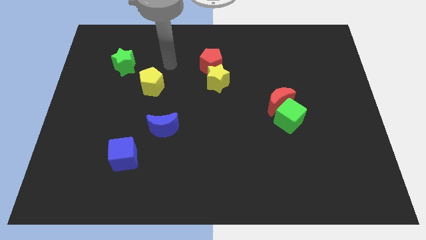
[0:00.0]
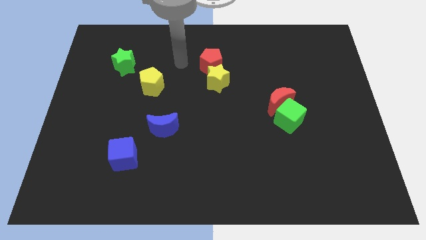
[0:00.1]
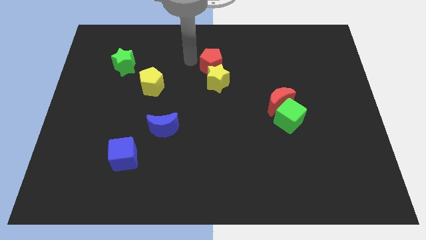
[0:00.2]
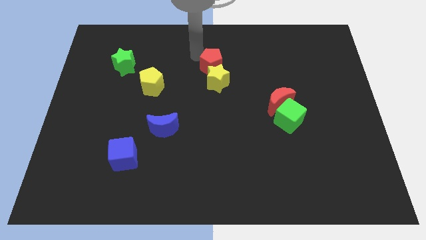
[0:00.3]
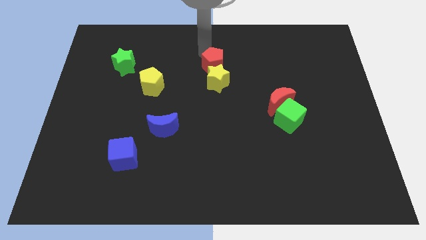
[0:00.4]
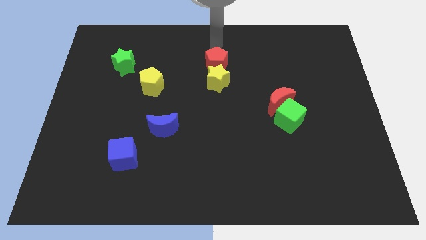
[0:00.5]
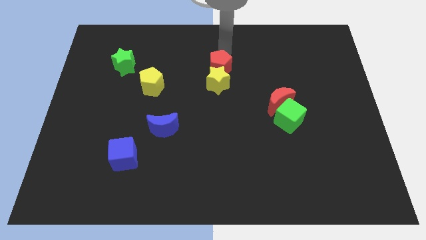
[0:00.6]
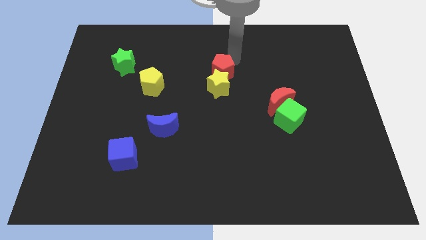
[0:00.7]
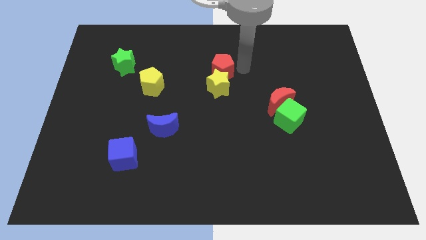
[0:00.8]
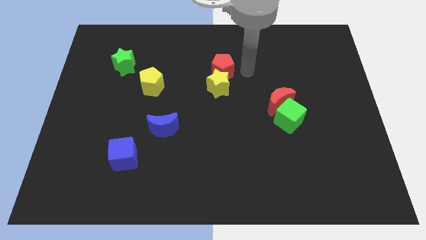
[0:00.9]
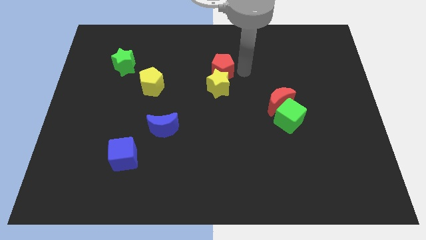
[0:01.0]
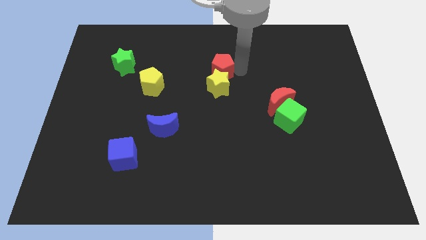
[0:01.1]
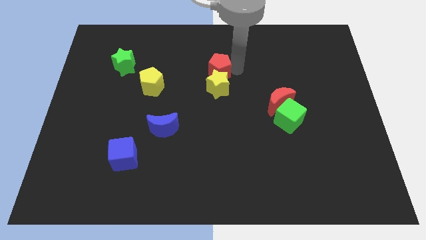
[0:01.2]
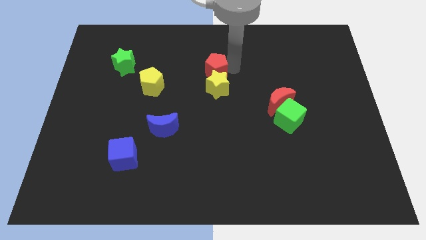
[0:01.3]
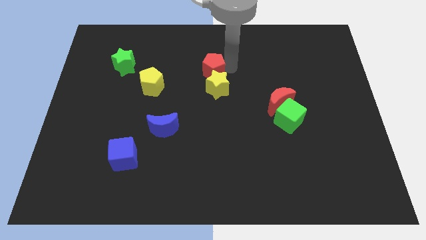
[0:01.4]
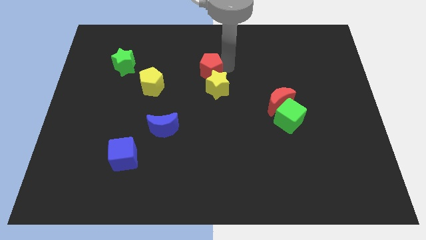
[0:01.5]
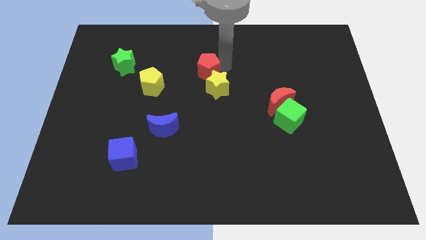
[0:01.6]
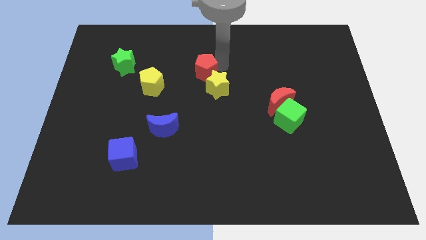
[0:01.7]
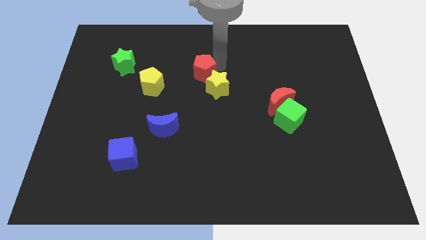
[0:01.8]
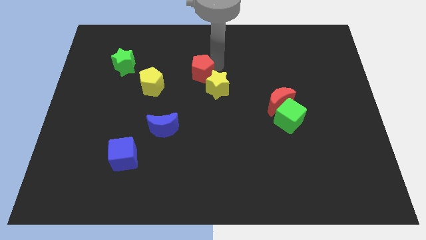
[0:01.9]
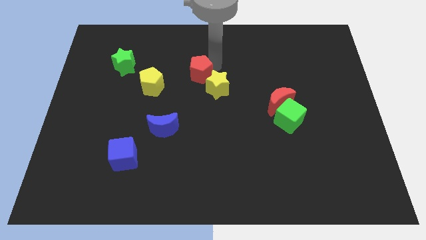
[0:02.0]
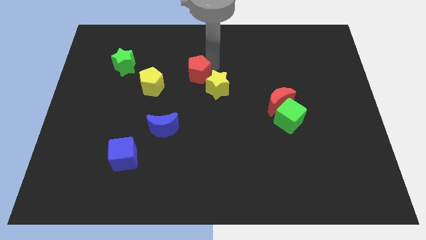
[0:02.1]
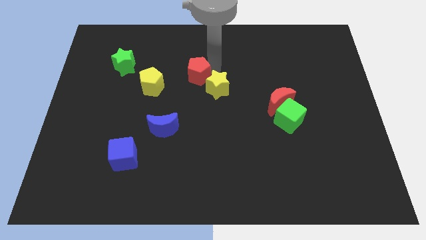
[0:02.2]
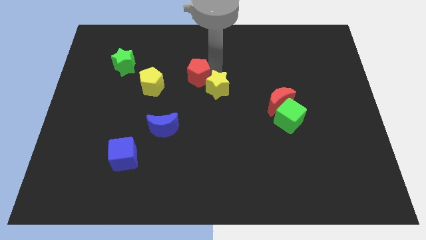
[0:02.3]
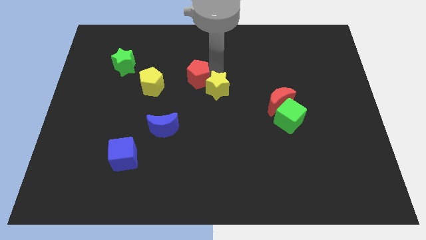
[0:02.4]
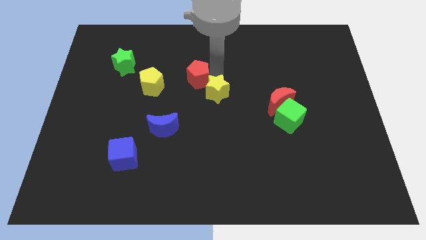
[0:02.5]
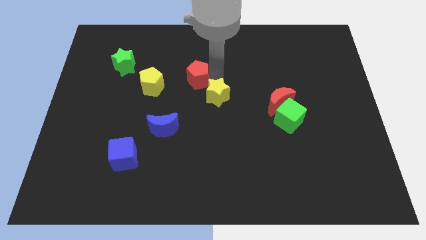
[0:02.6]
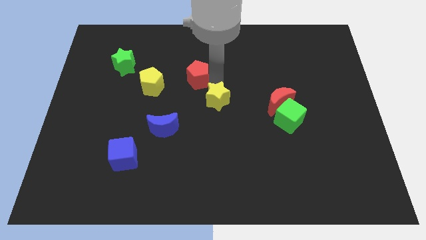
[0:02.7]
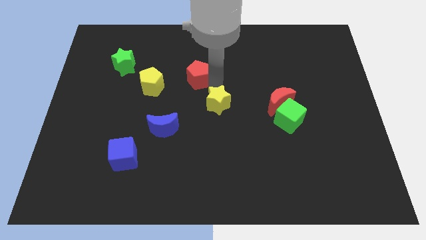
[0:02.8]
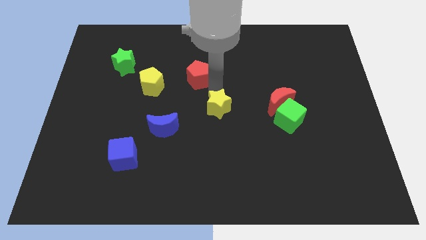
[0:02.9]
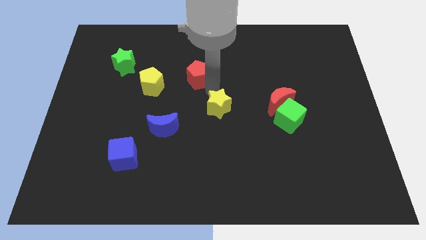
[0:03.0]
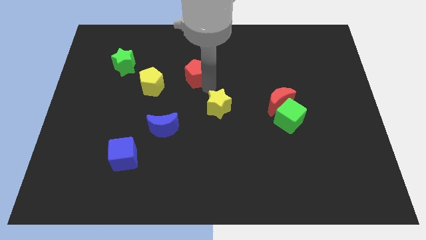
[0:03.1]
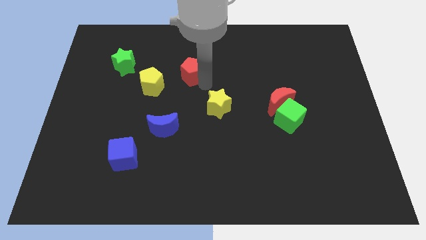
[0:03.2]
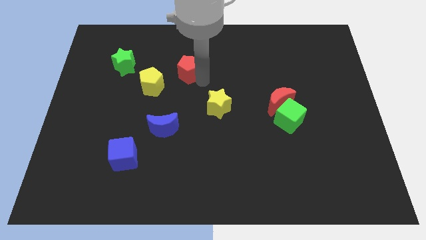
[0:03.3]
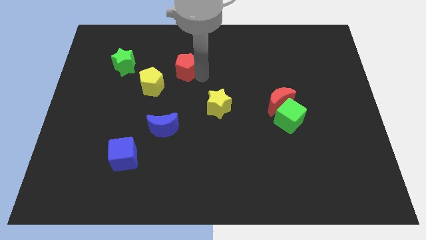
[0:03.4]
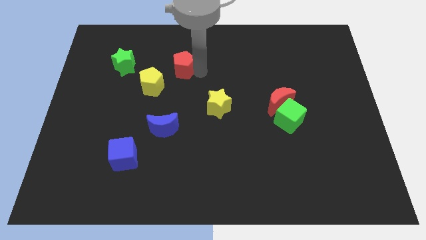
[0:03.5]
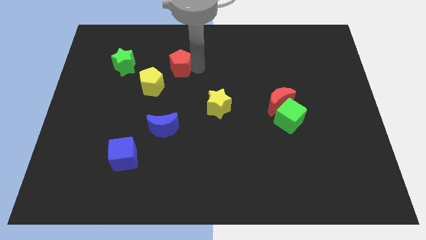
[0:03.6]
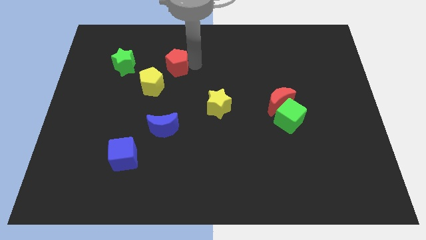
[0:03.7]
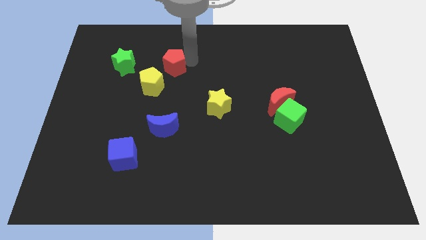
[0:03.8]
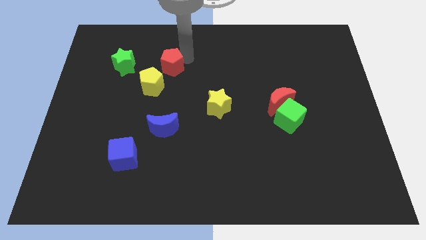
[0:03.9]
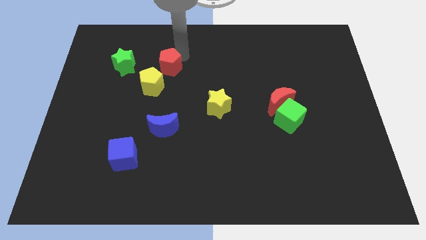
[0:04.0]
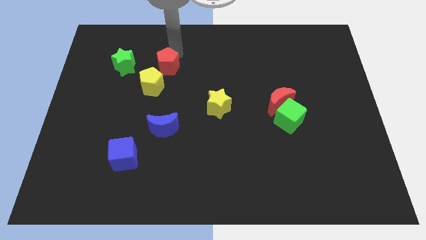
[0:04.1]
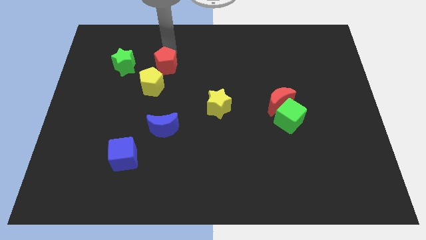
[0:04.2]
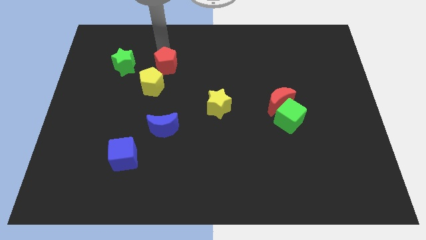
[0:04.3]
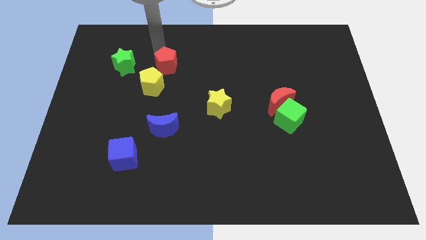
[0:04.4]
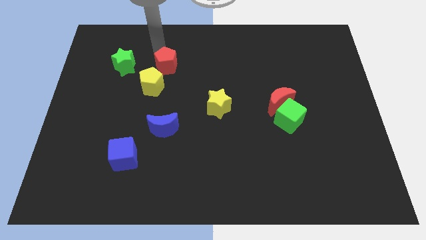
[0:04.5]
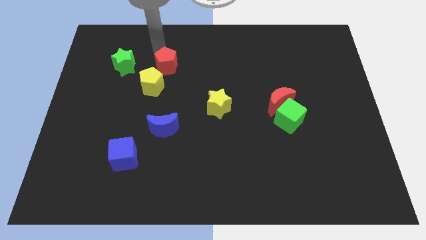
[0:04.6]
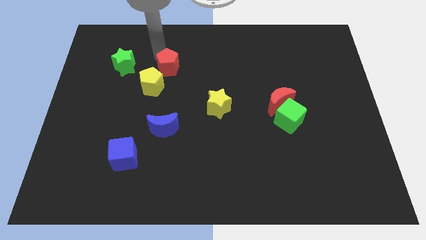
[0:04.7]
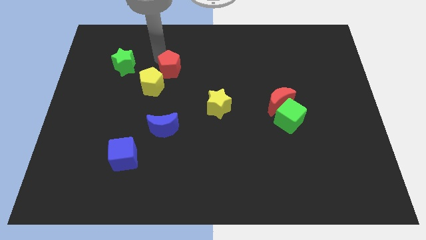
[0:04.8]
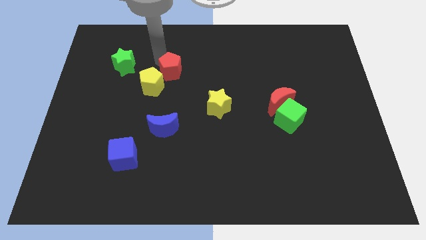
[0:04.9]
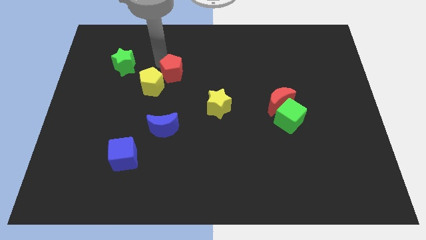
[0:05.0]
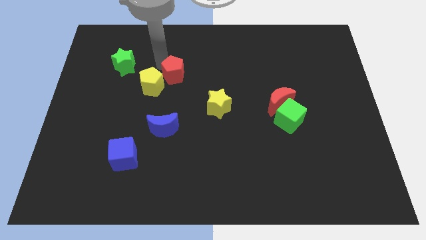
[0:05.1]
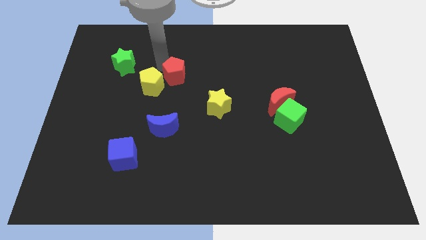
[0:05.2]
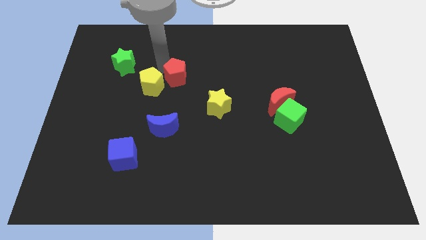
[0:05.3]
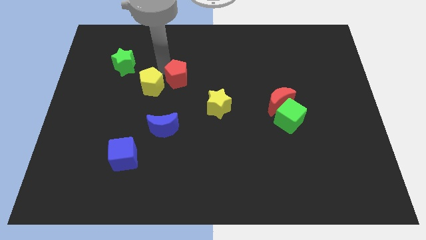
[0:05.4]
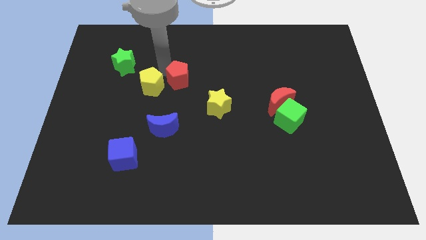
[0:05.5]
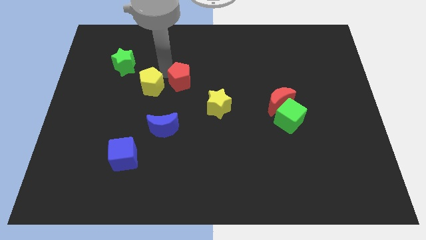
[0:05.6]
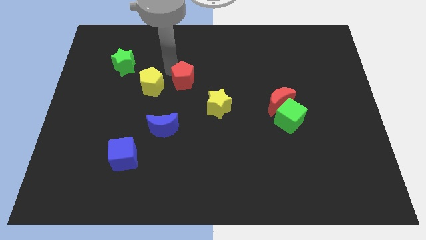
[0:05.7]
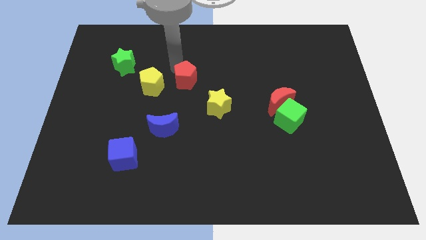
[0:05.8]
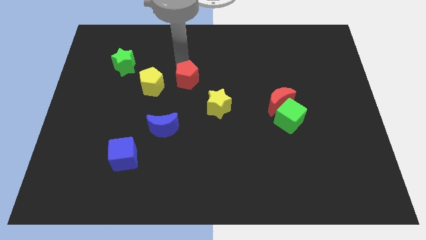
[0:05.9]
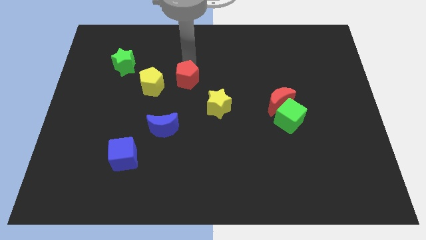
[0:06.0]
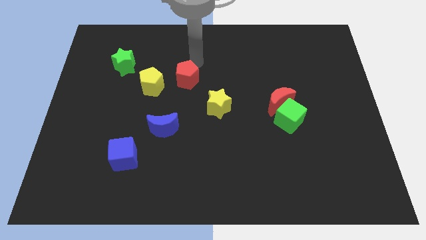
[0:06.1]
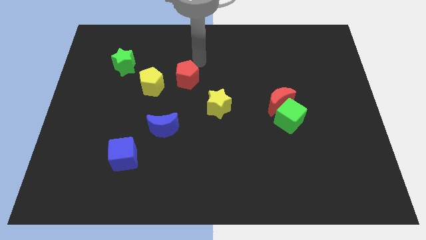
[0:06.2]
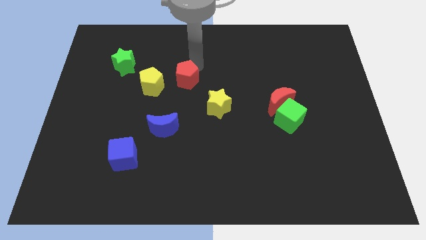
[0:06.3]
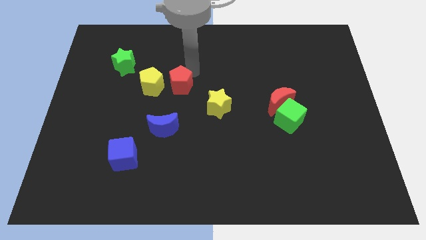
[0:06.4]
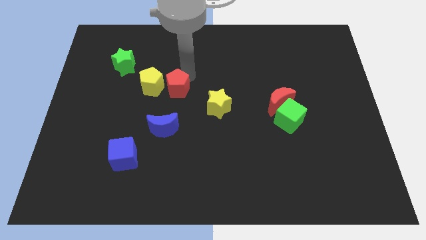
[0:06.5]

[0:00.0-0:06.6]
slide the red pentagon to the bottom right of the yellow pentagon

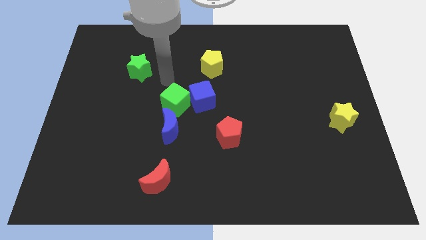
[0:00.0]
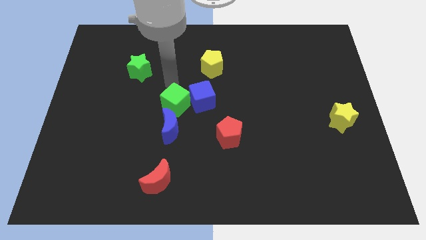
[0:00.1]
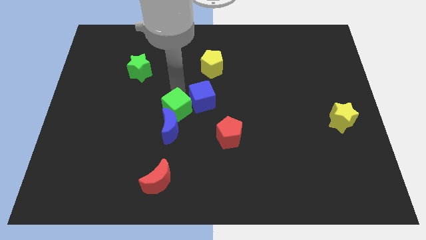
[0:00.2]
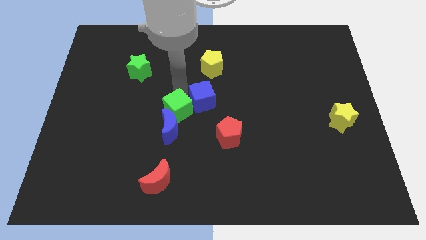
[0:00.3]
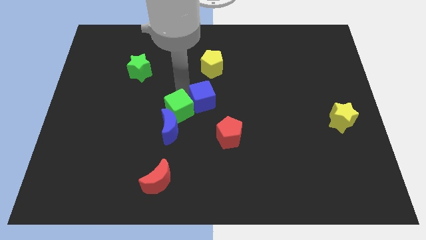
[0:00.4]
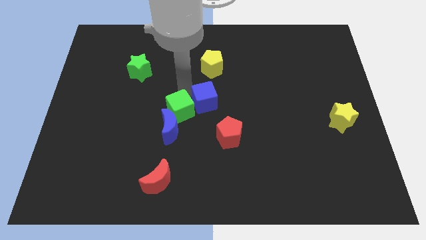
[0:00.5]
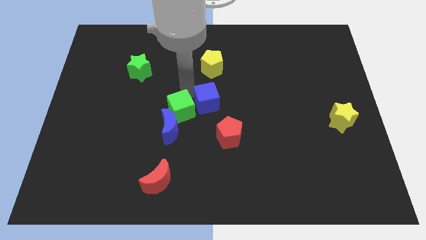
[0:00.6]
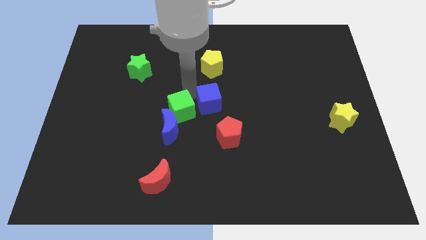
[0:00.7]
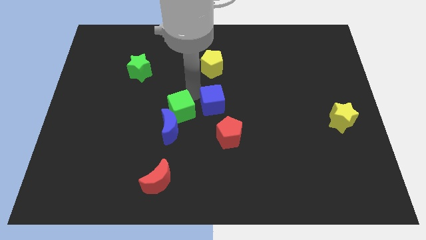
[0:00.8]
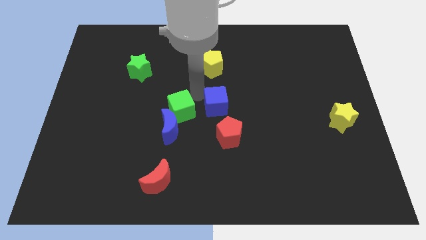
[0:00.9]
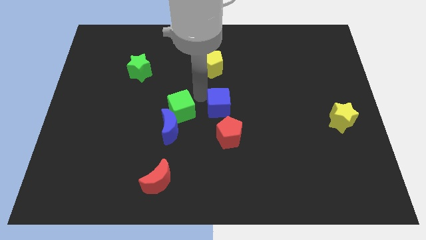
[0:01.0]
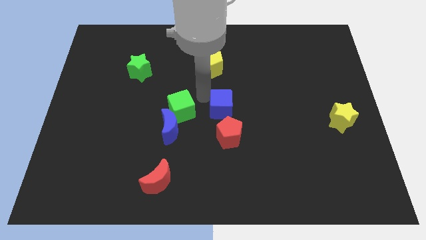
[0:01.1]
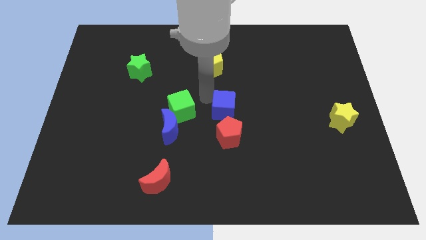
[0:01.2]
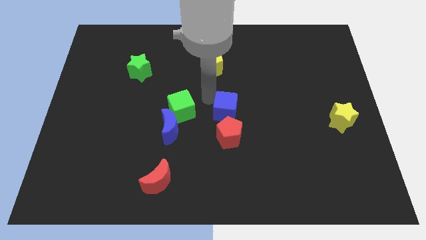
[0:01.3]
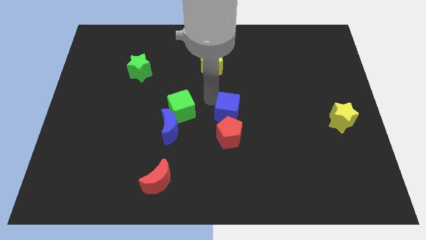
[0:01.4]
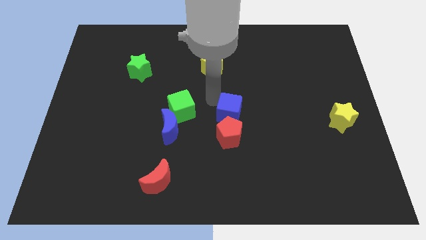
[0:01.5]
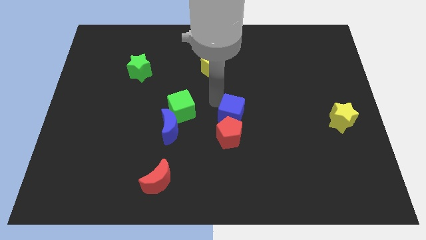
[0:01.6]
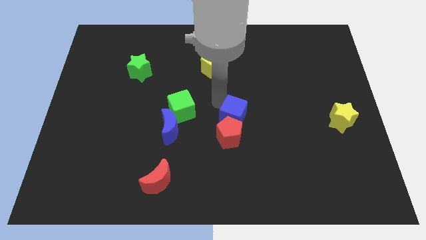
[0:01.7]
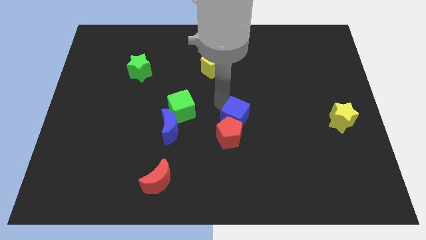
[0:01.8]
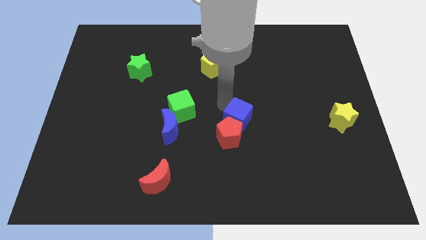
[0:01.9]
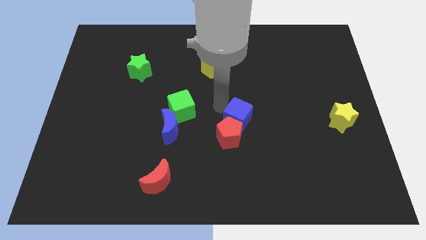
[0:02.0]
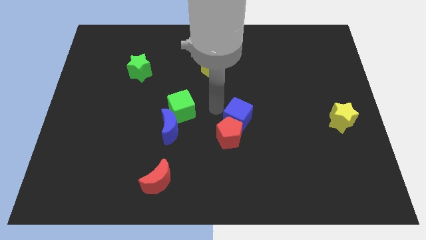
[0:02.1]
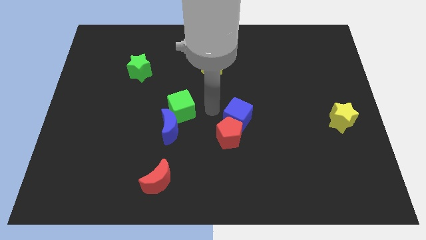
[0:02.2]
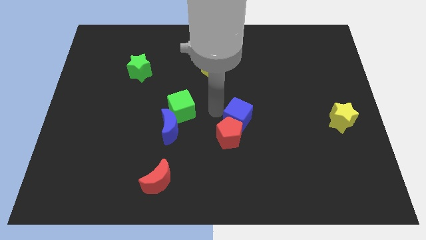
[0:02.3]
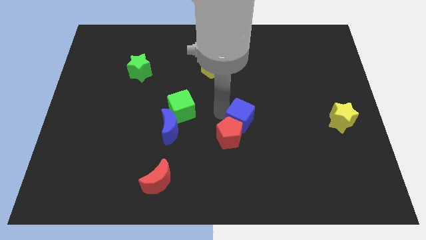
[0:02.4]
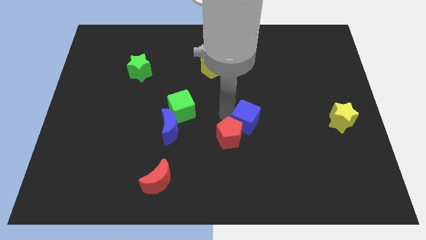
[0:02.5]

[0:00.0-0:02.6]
move the blue cube to the right side of the red pentagon
